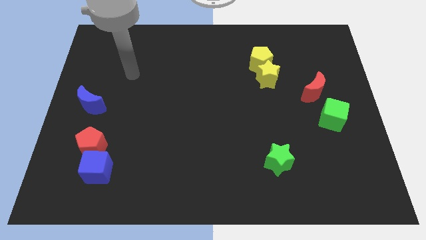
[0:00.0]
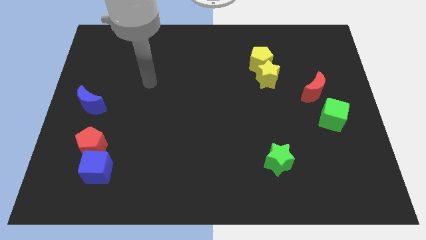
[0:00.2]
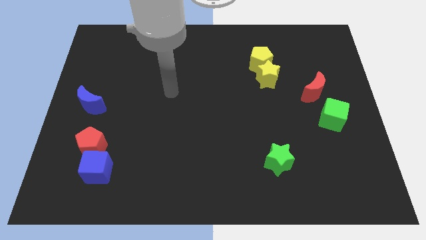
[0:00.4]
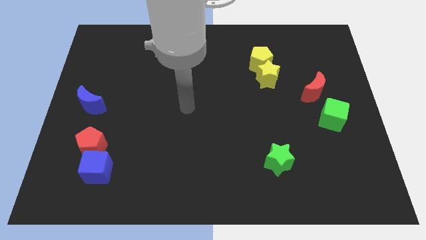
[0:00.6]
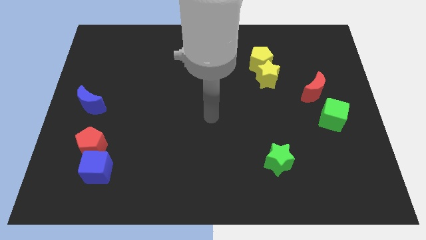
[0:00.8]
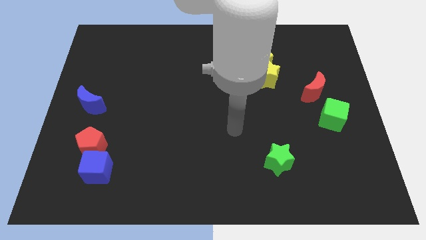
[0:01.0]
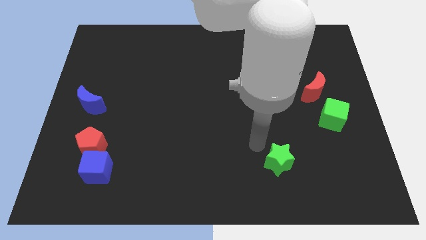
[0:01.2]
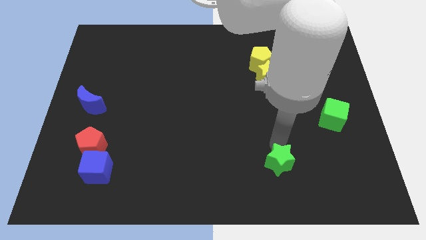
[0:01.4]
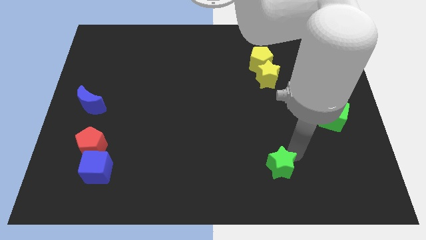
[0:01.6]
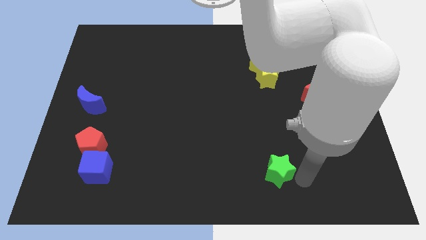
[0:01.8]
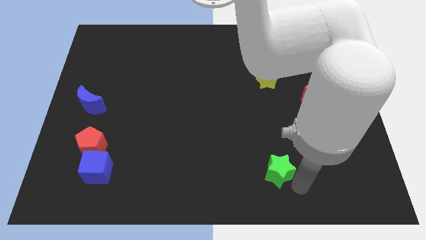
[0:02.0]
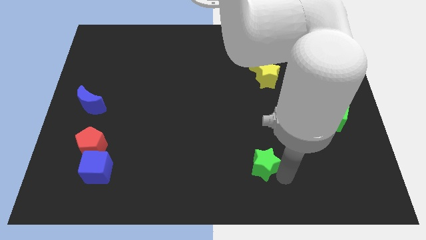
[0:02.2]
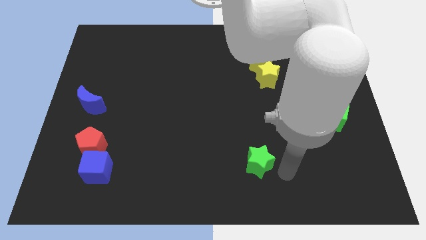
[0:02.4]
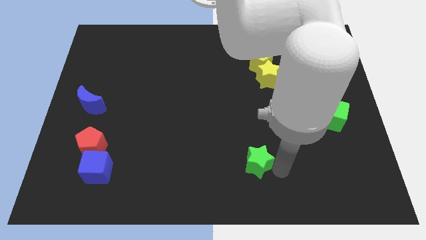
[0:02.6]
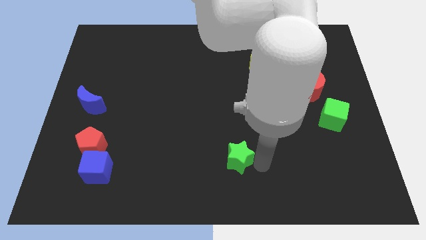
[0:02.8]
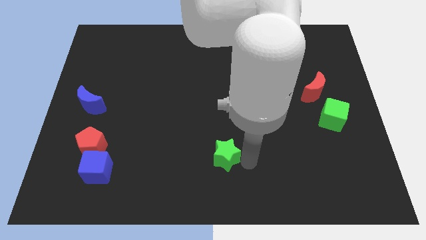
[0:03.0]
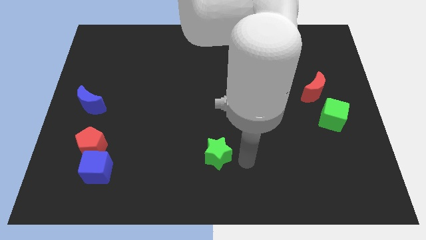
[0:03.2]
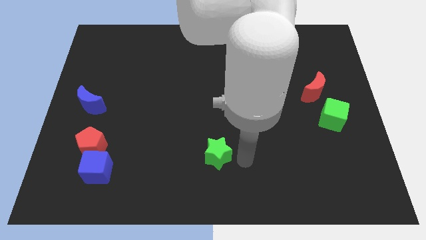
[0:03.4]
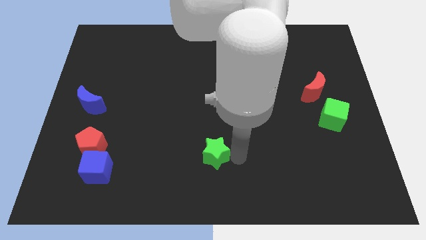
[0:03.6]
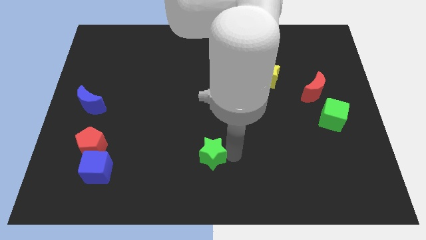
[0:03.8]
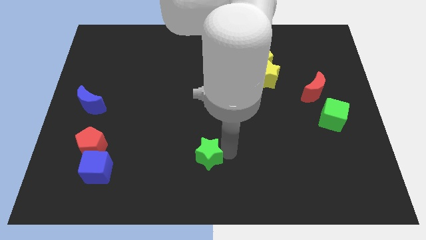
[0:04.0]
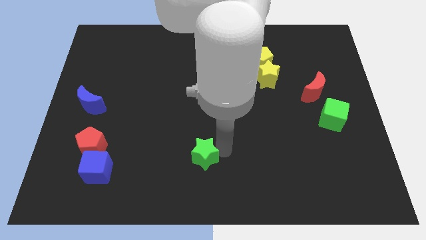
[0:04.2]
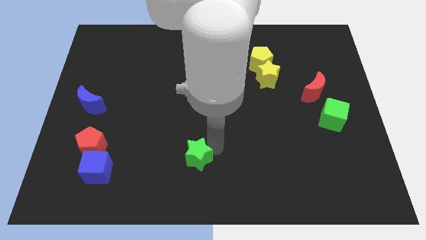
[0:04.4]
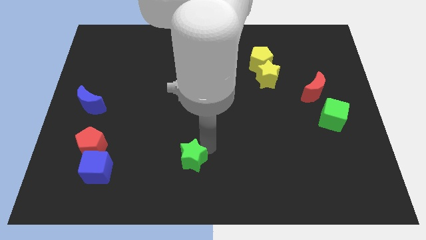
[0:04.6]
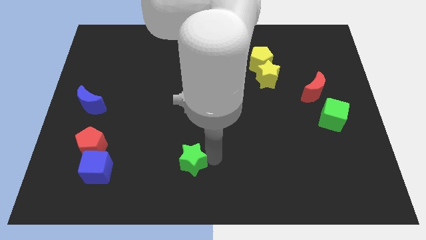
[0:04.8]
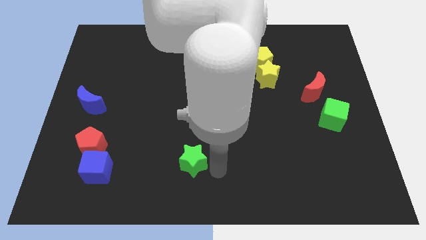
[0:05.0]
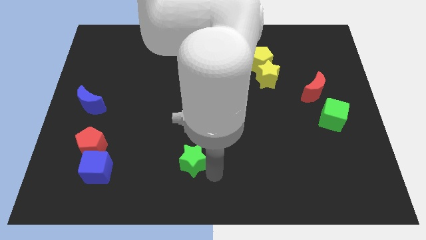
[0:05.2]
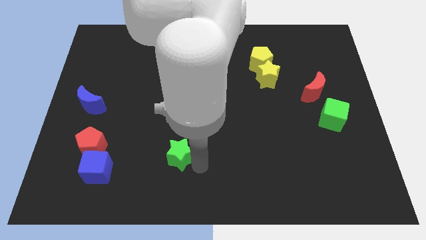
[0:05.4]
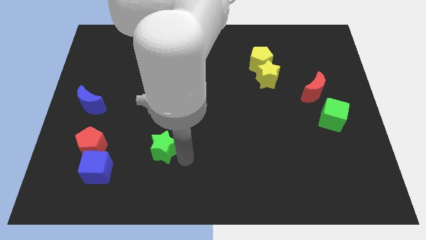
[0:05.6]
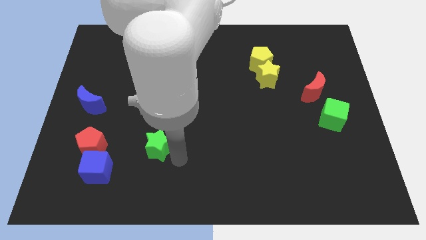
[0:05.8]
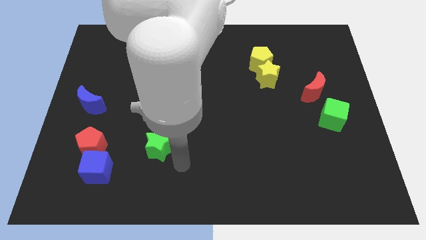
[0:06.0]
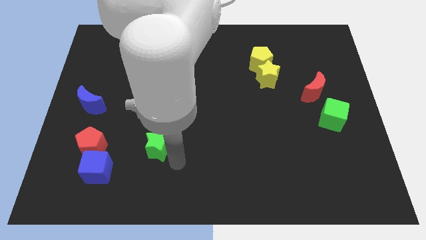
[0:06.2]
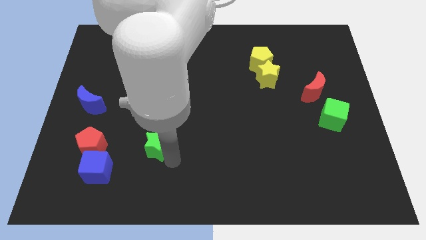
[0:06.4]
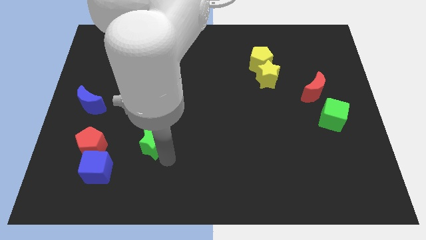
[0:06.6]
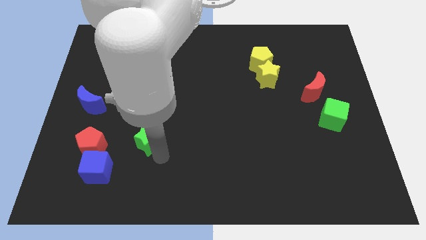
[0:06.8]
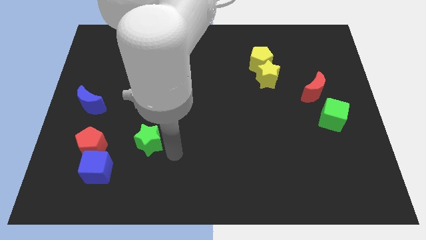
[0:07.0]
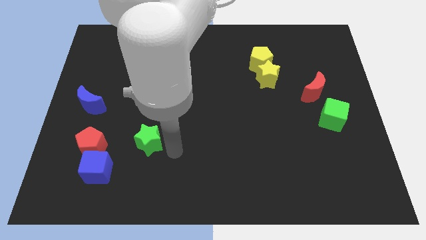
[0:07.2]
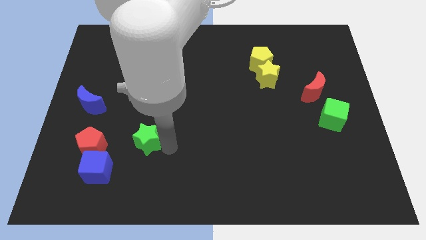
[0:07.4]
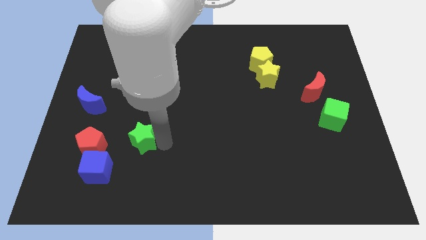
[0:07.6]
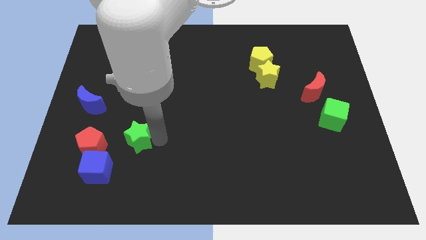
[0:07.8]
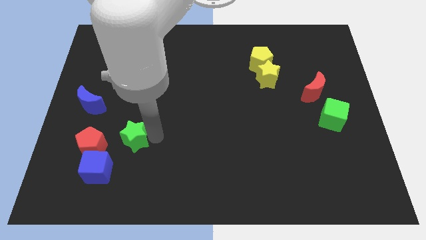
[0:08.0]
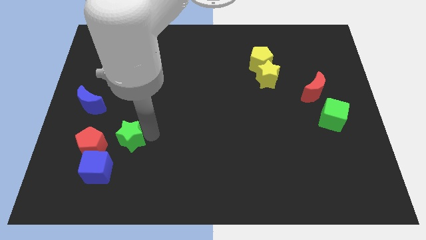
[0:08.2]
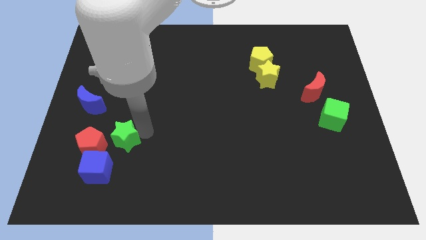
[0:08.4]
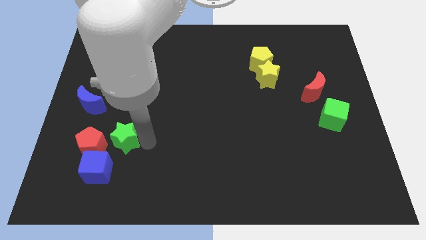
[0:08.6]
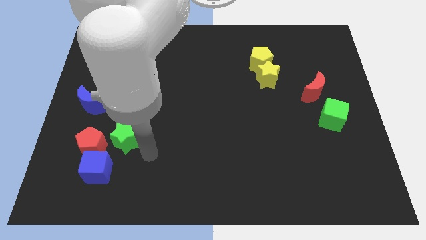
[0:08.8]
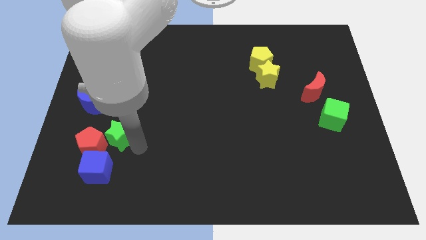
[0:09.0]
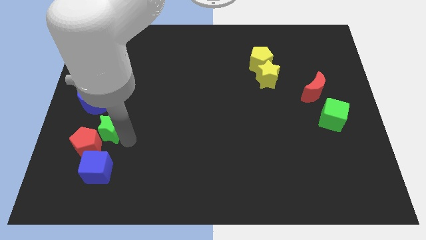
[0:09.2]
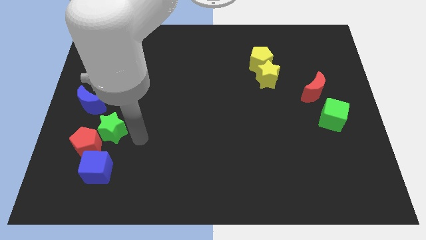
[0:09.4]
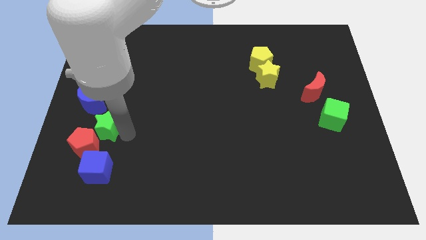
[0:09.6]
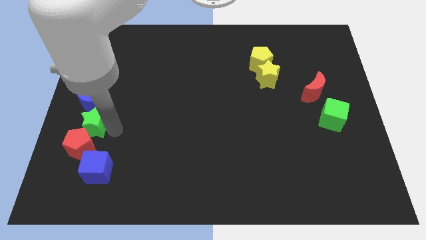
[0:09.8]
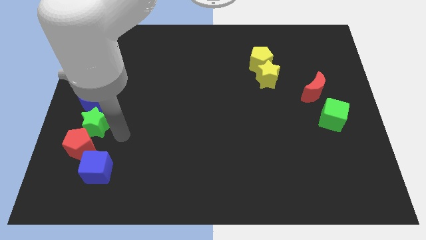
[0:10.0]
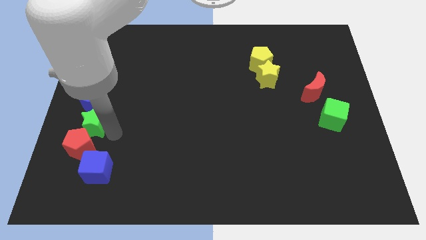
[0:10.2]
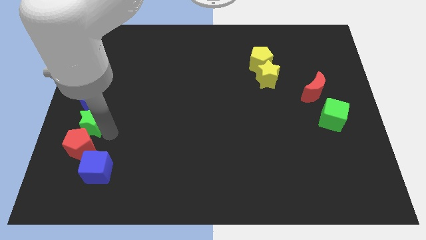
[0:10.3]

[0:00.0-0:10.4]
move the green star to the left side

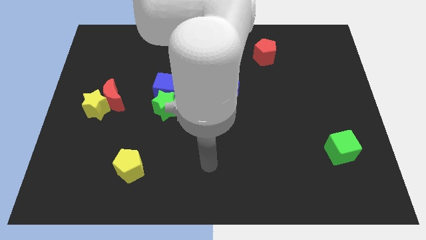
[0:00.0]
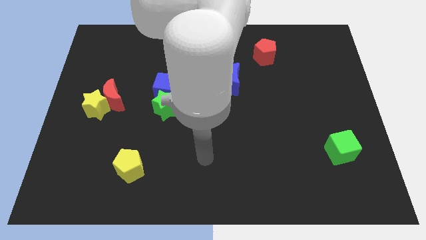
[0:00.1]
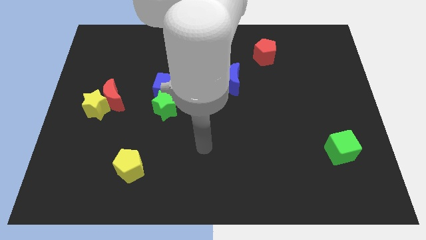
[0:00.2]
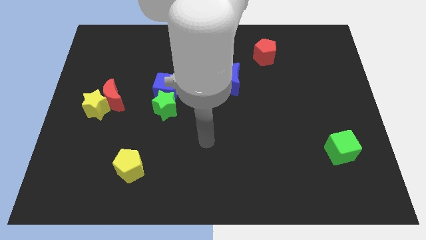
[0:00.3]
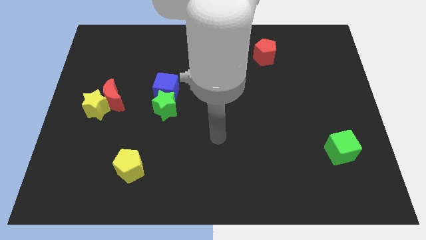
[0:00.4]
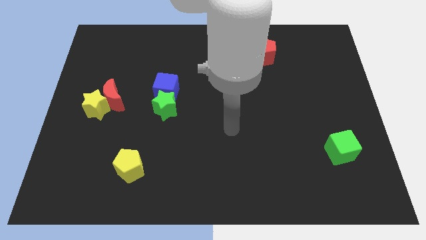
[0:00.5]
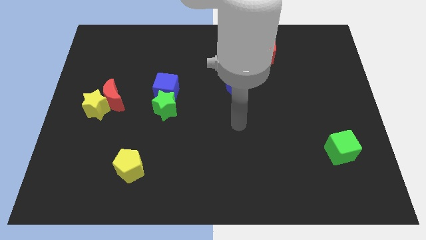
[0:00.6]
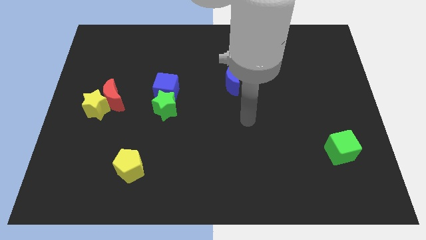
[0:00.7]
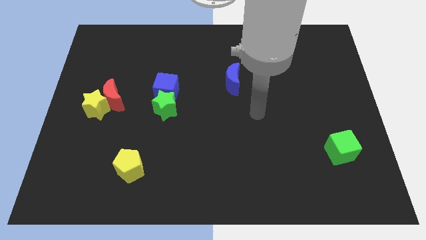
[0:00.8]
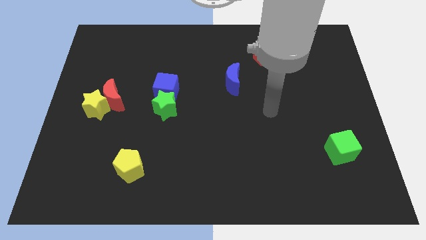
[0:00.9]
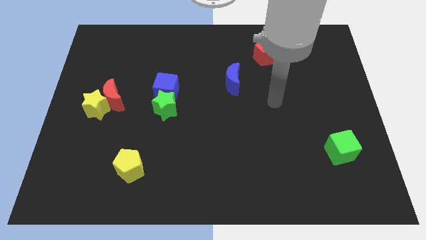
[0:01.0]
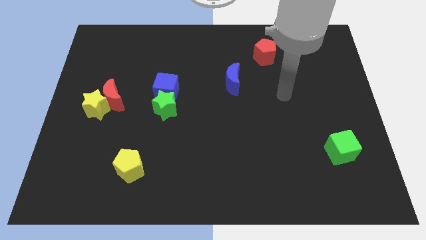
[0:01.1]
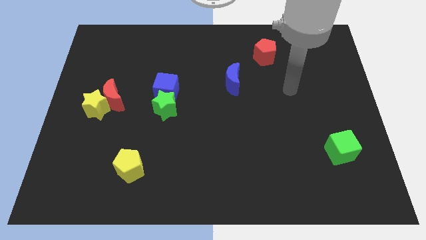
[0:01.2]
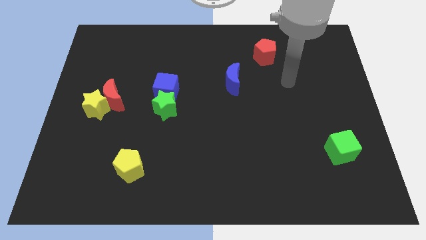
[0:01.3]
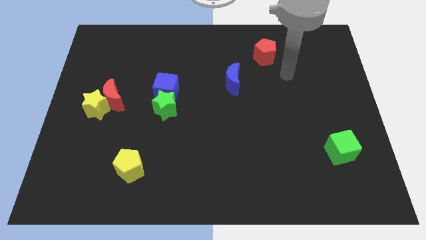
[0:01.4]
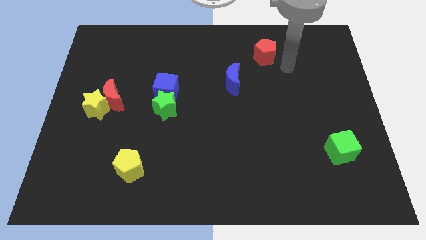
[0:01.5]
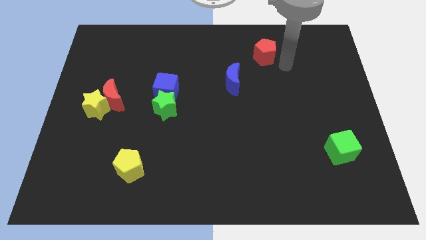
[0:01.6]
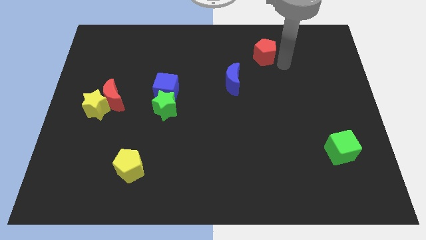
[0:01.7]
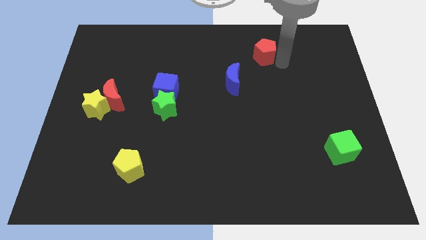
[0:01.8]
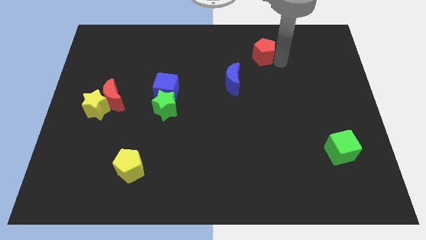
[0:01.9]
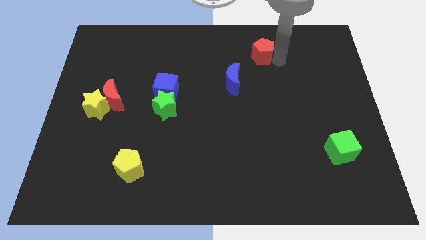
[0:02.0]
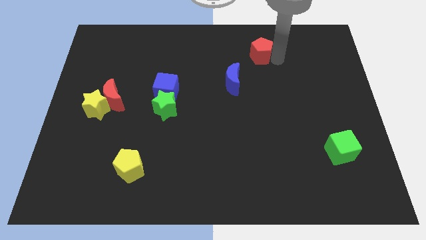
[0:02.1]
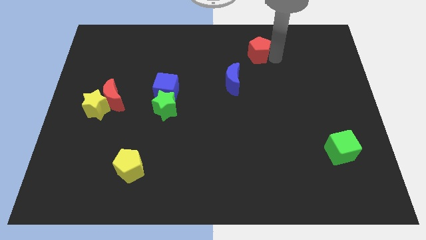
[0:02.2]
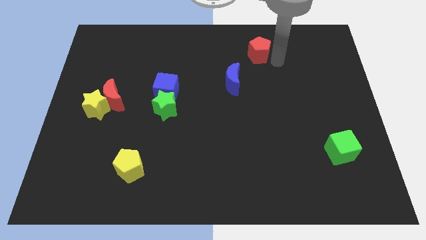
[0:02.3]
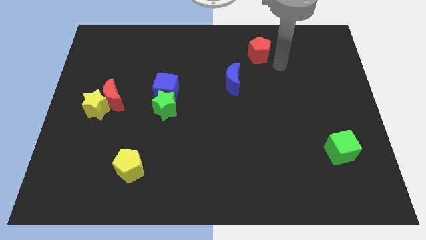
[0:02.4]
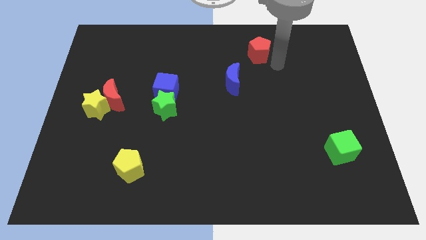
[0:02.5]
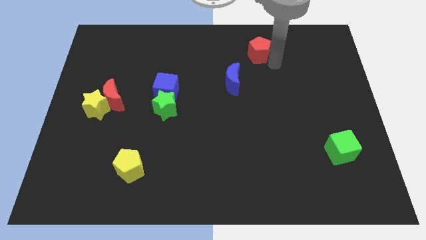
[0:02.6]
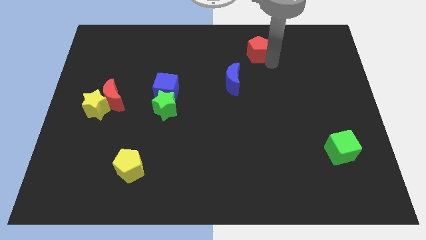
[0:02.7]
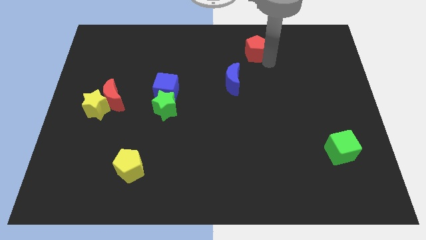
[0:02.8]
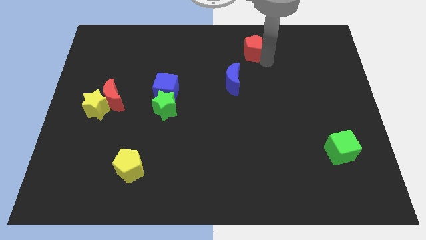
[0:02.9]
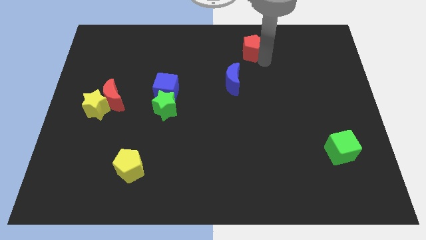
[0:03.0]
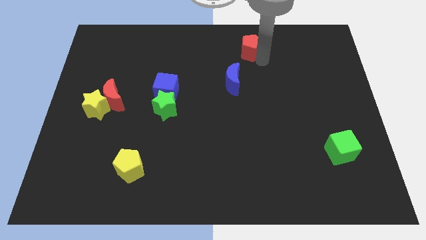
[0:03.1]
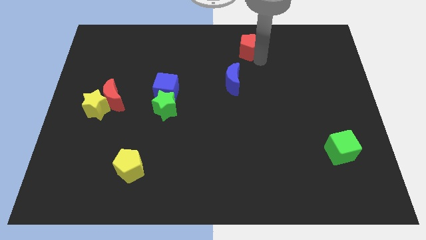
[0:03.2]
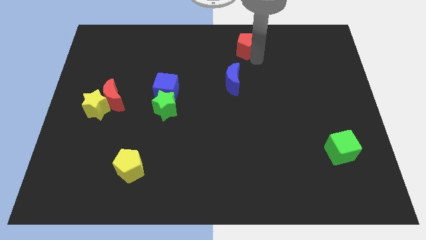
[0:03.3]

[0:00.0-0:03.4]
move the red pentagon to the towards your base
